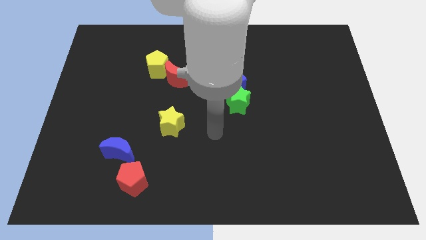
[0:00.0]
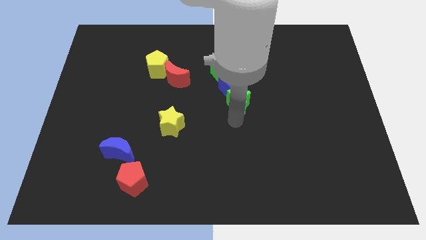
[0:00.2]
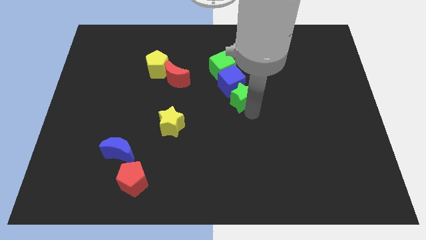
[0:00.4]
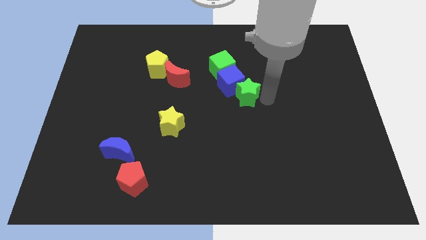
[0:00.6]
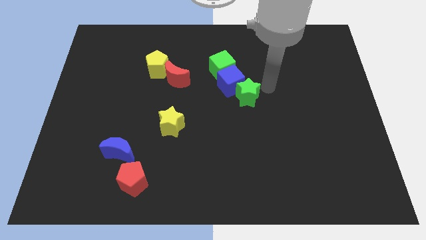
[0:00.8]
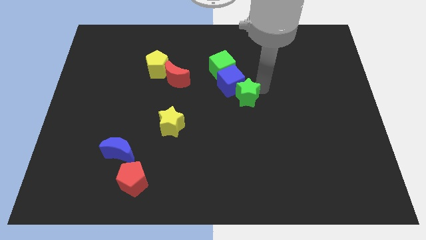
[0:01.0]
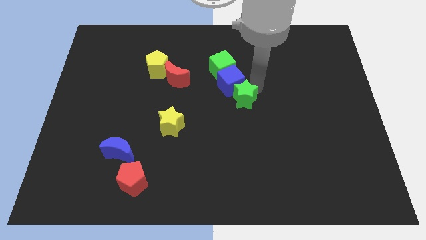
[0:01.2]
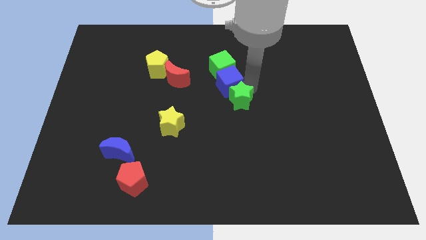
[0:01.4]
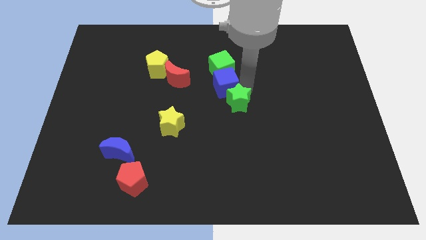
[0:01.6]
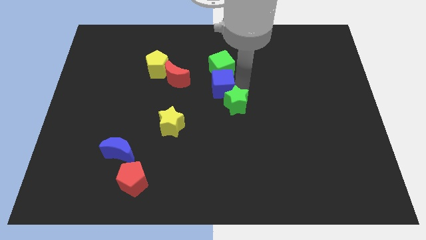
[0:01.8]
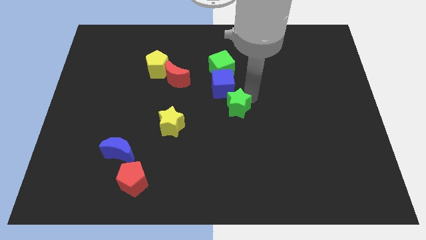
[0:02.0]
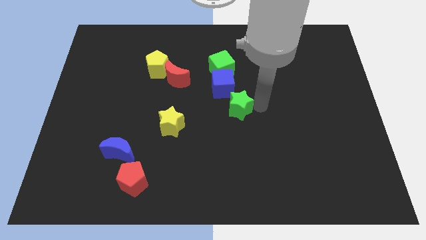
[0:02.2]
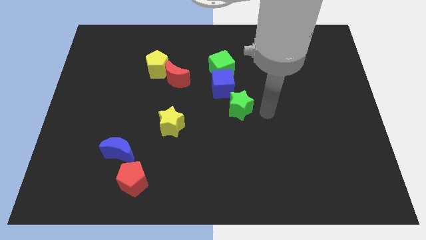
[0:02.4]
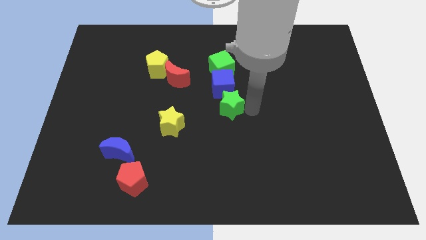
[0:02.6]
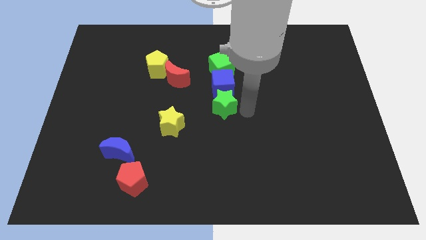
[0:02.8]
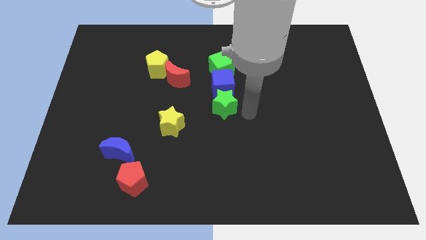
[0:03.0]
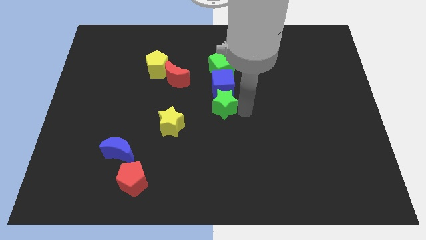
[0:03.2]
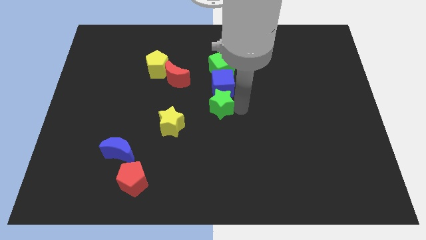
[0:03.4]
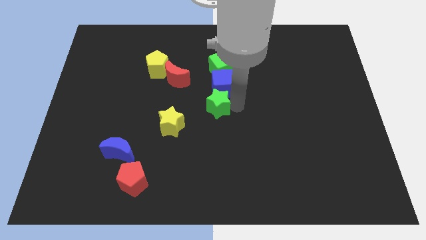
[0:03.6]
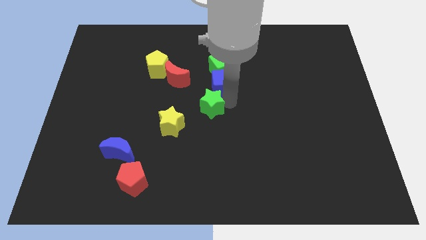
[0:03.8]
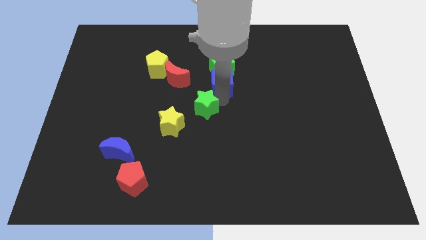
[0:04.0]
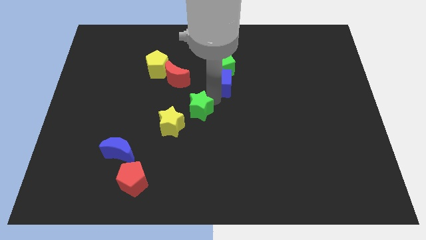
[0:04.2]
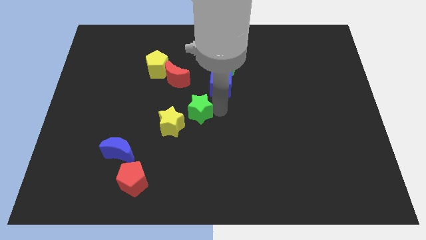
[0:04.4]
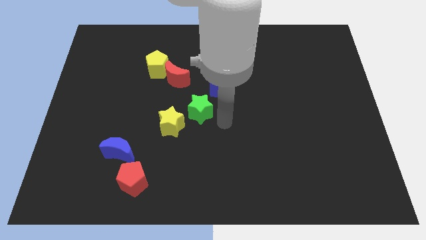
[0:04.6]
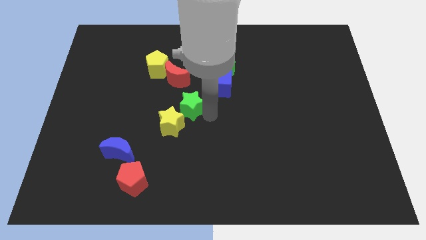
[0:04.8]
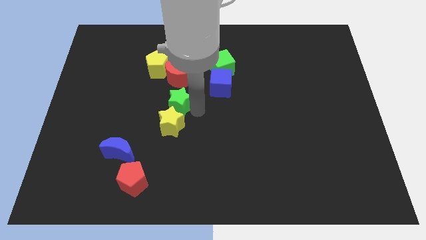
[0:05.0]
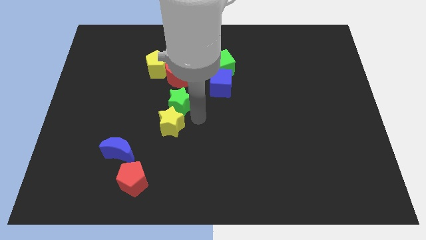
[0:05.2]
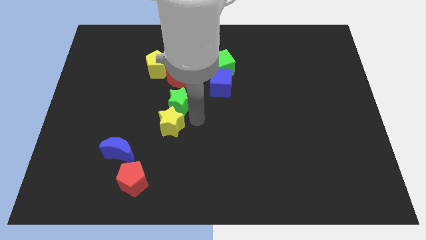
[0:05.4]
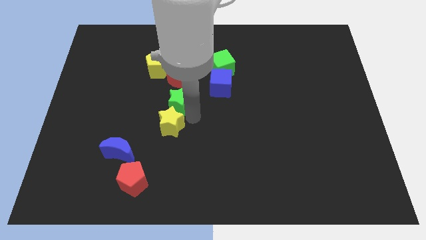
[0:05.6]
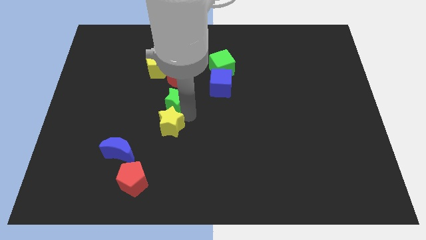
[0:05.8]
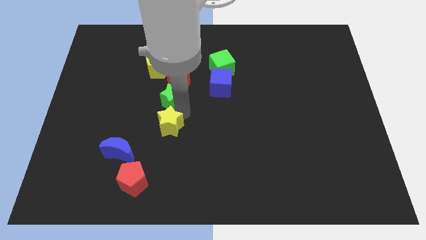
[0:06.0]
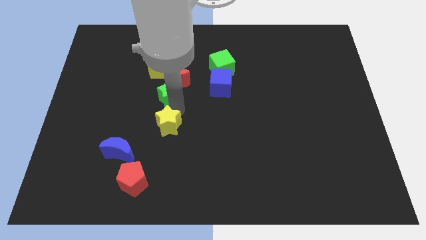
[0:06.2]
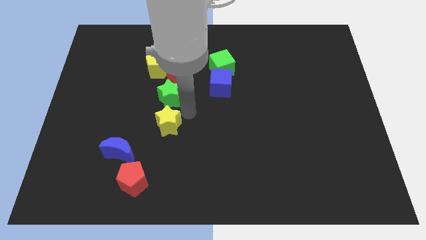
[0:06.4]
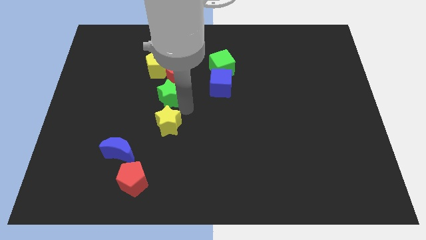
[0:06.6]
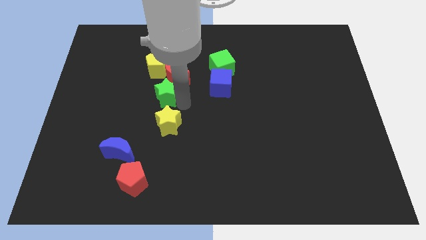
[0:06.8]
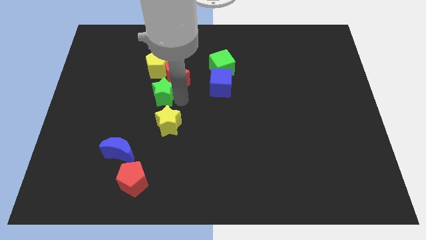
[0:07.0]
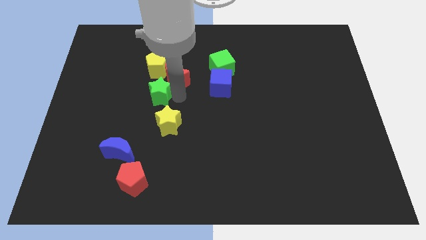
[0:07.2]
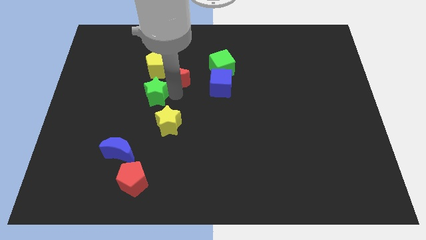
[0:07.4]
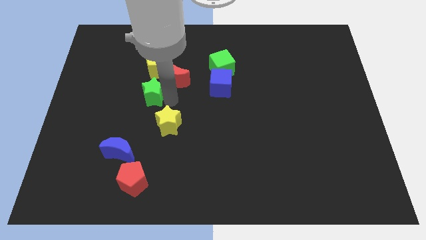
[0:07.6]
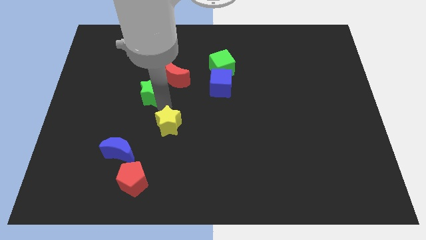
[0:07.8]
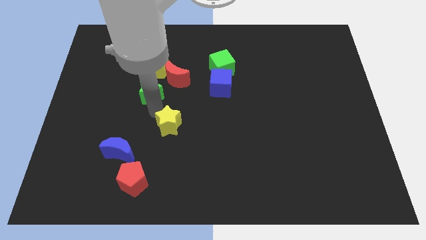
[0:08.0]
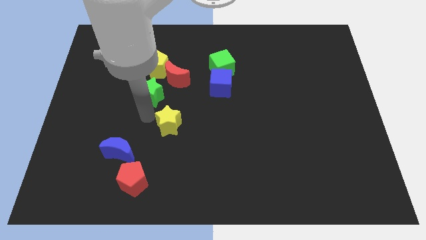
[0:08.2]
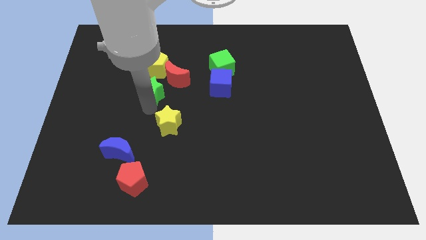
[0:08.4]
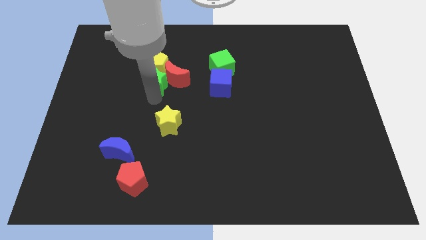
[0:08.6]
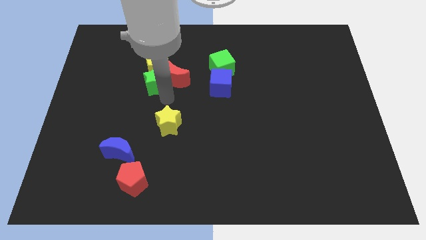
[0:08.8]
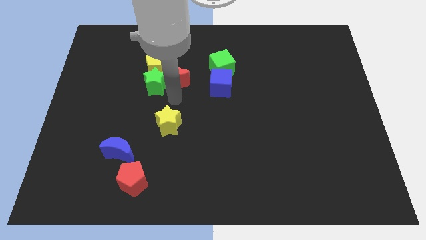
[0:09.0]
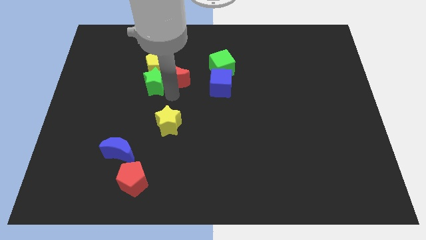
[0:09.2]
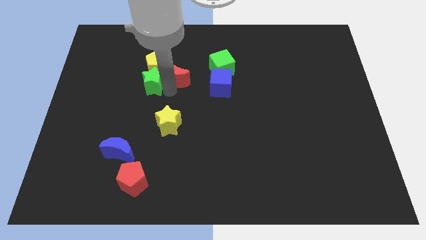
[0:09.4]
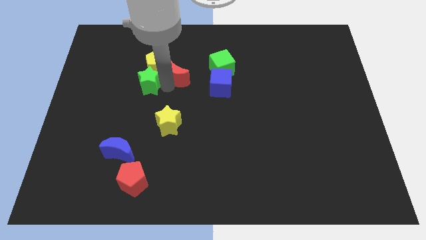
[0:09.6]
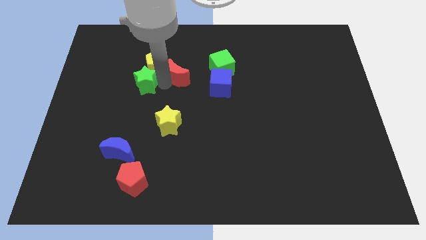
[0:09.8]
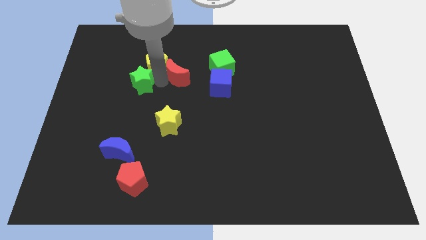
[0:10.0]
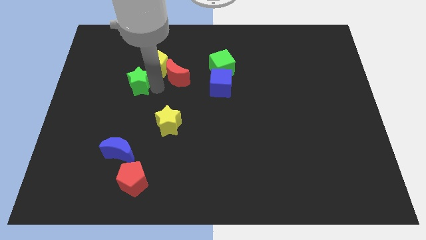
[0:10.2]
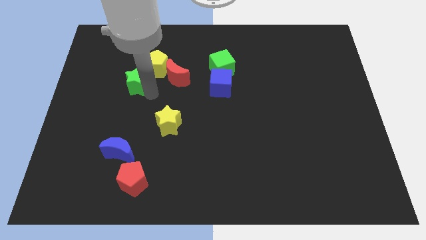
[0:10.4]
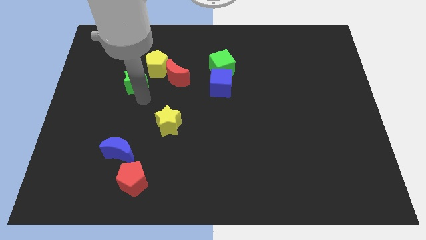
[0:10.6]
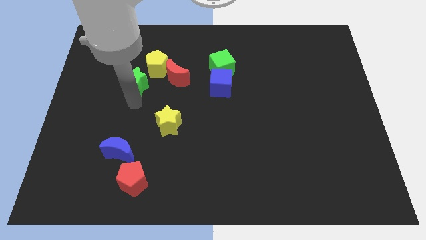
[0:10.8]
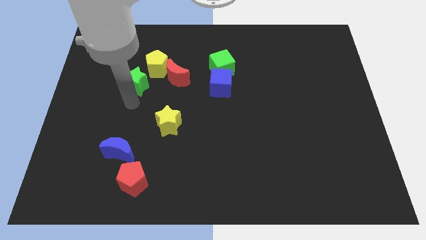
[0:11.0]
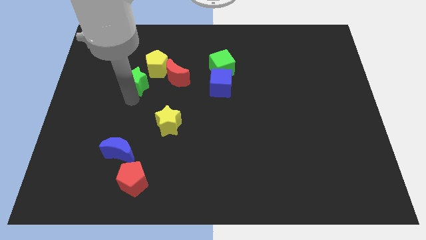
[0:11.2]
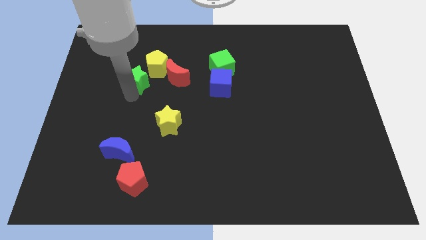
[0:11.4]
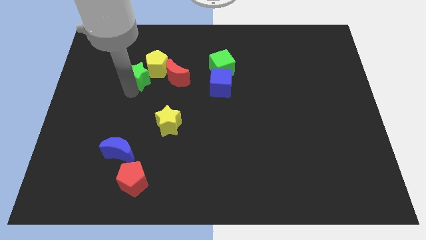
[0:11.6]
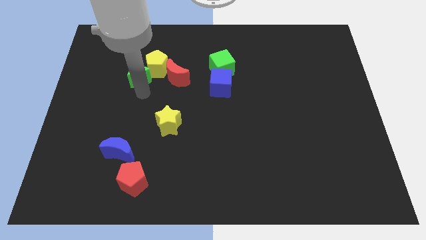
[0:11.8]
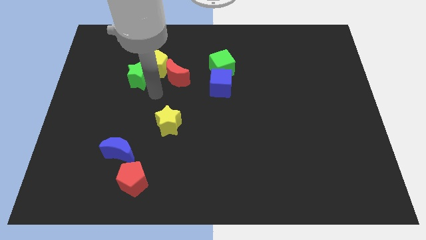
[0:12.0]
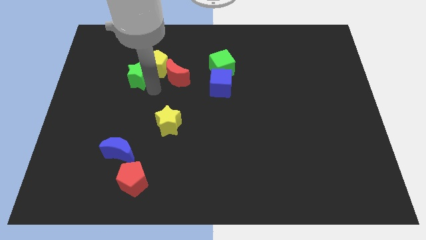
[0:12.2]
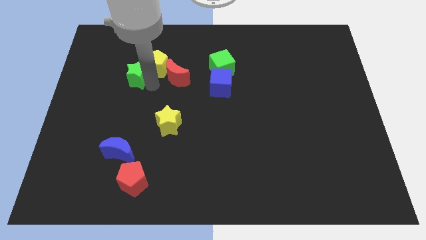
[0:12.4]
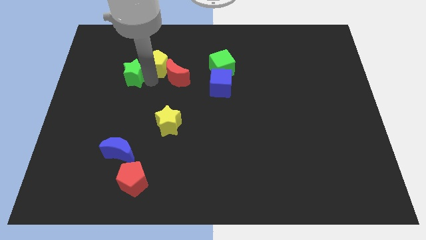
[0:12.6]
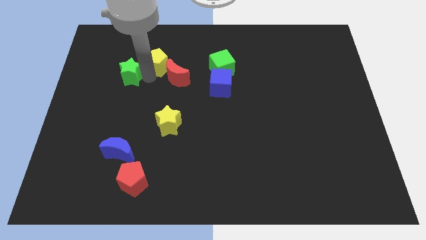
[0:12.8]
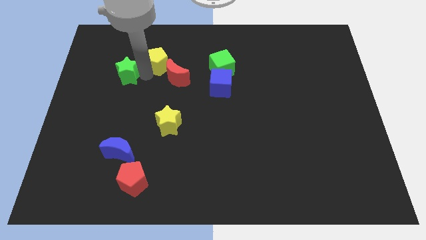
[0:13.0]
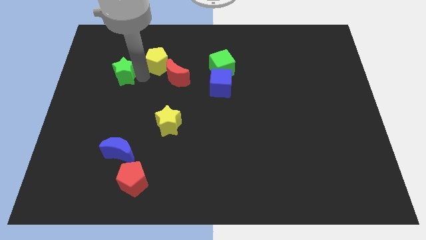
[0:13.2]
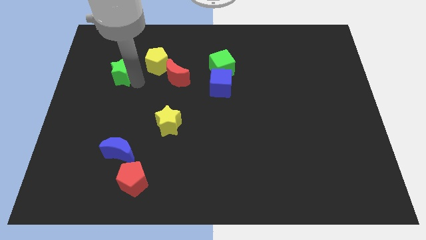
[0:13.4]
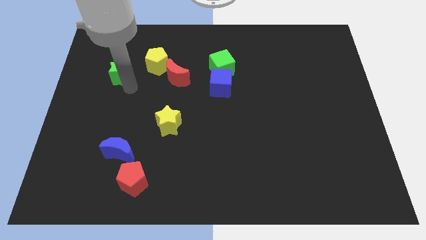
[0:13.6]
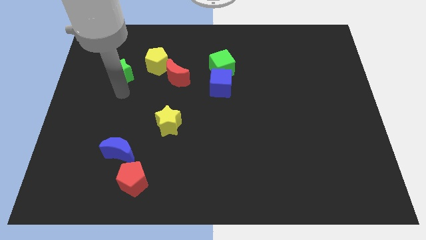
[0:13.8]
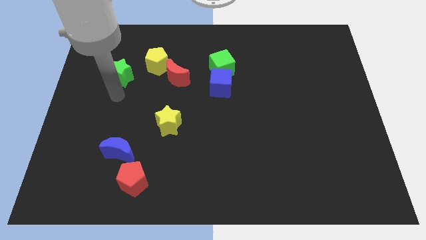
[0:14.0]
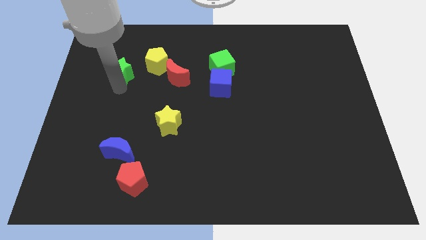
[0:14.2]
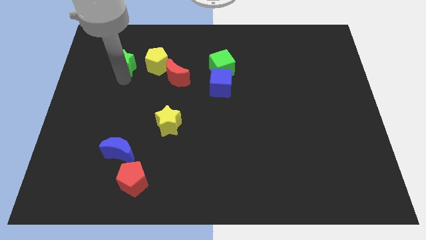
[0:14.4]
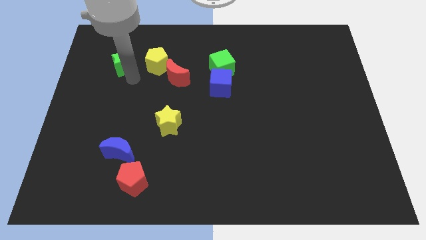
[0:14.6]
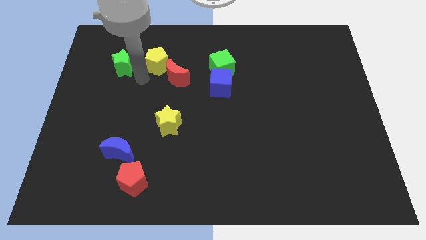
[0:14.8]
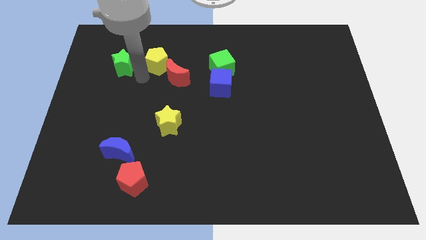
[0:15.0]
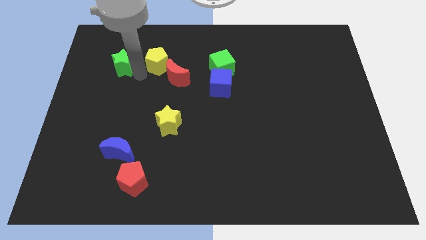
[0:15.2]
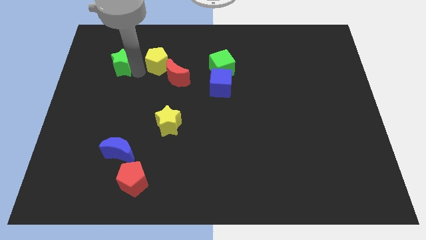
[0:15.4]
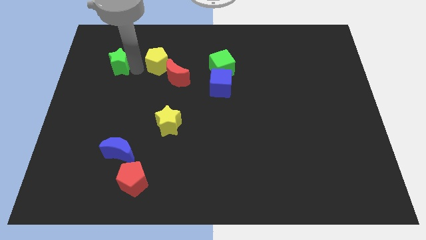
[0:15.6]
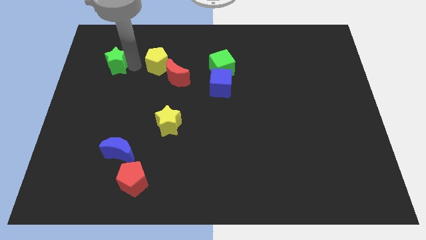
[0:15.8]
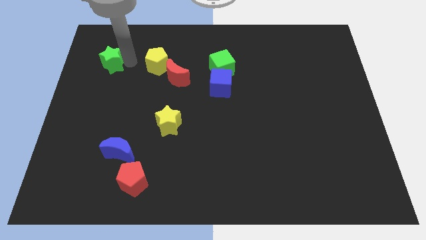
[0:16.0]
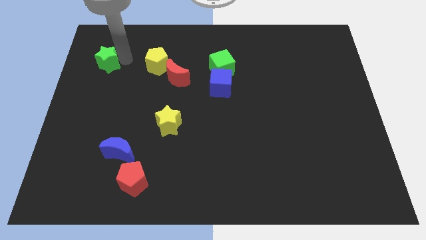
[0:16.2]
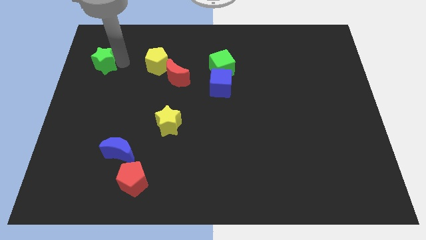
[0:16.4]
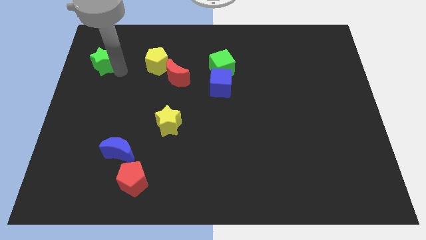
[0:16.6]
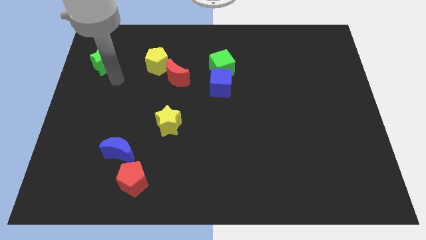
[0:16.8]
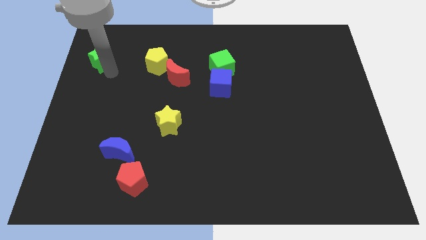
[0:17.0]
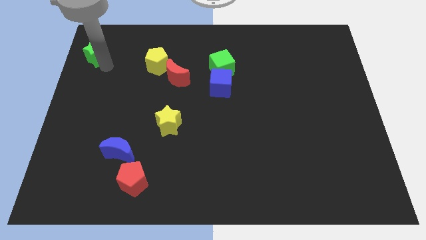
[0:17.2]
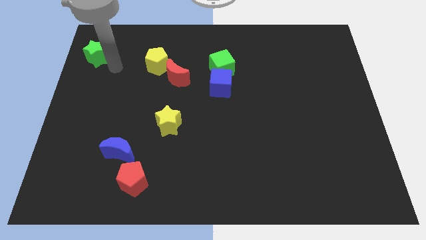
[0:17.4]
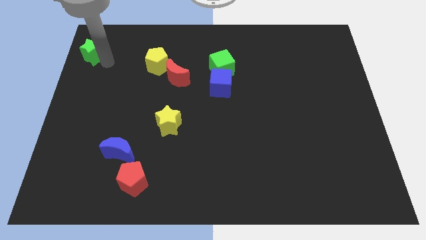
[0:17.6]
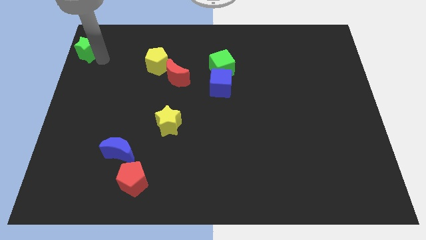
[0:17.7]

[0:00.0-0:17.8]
push the green star to the top left of the board
